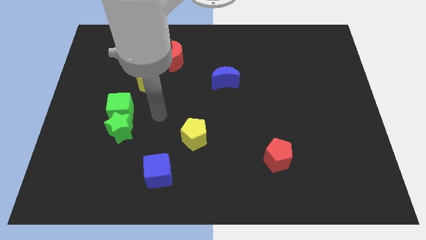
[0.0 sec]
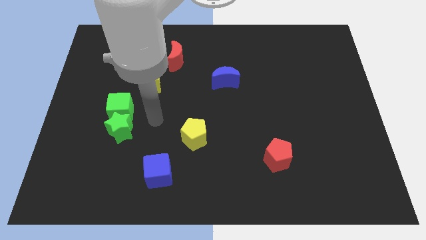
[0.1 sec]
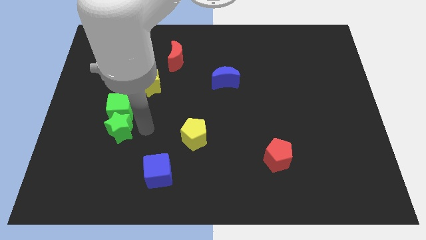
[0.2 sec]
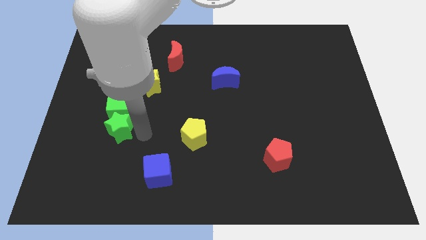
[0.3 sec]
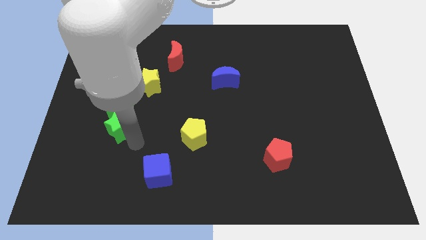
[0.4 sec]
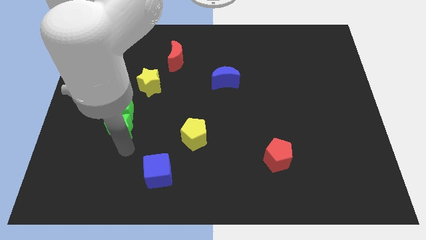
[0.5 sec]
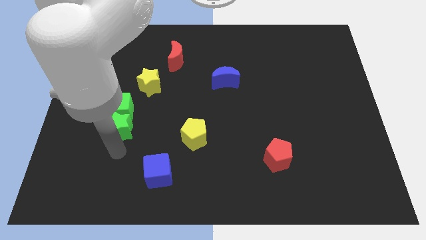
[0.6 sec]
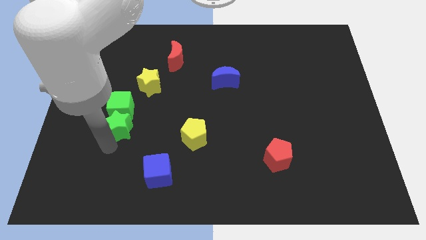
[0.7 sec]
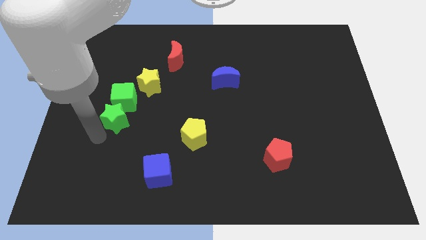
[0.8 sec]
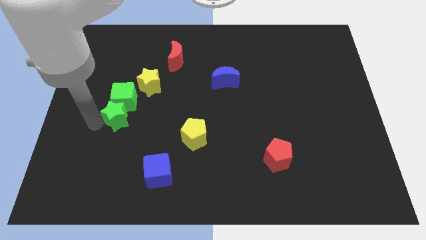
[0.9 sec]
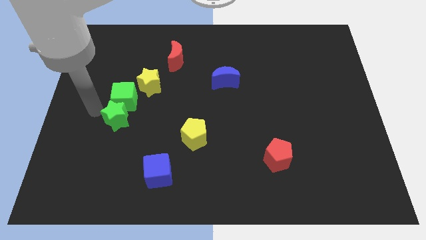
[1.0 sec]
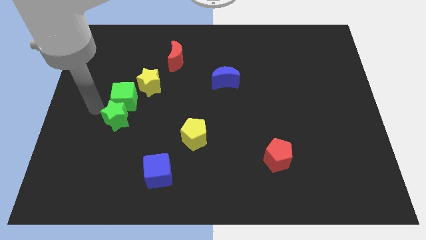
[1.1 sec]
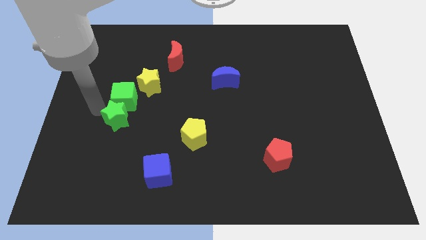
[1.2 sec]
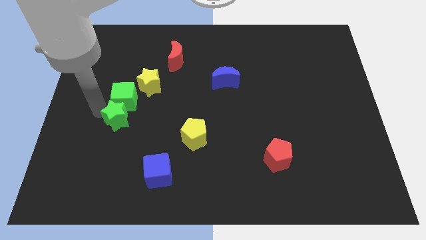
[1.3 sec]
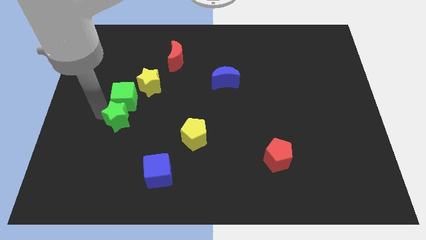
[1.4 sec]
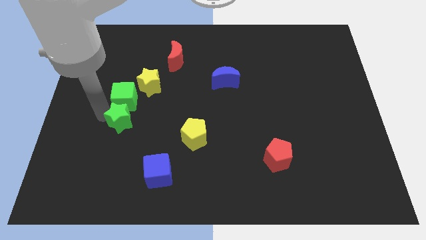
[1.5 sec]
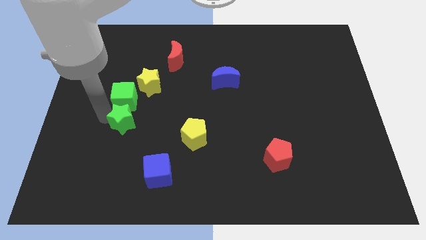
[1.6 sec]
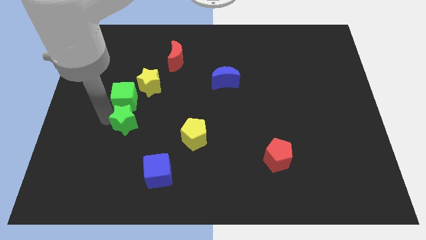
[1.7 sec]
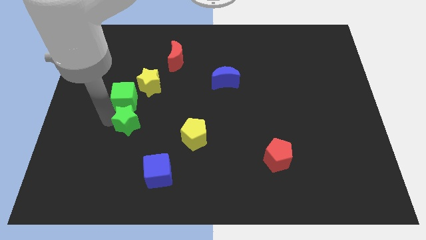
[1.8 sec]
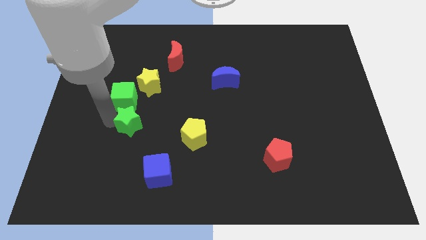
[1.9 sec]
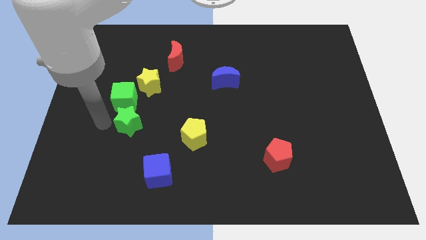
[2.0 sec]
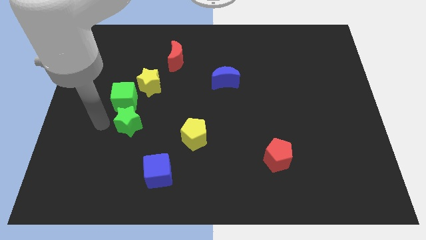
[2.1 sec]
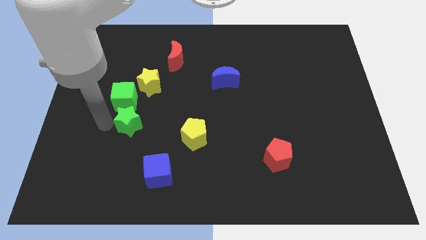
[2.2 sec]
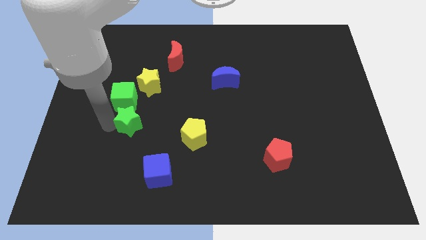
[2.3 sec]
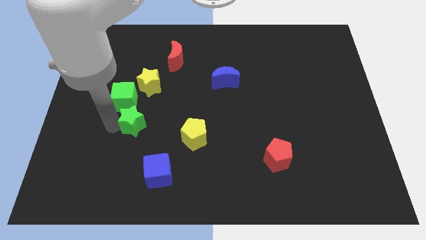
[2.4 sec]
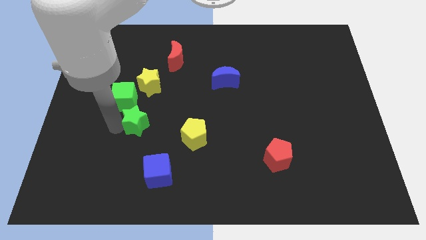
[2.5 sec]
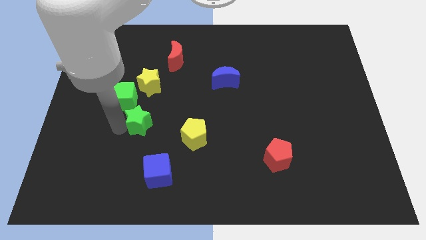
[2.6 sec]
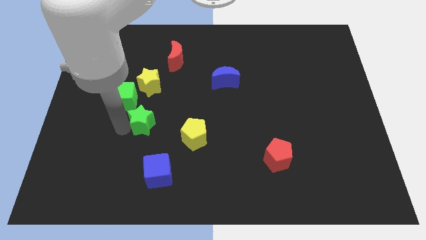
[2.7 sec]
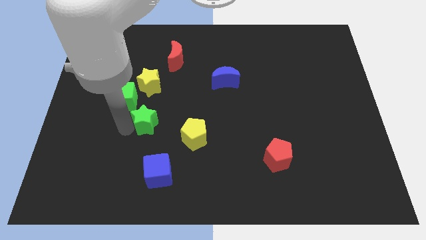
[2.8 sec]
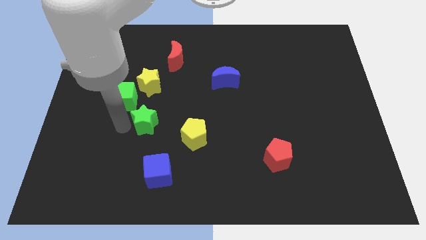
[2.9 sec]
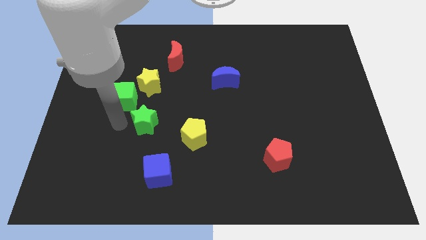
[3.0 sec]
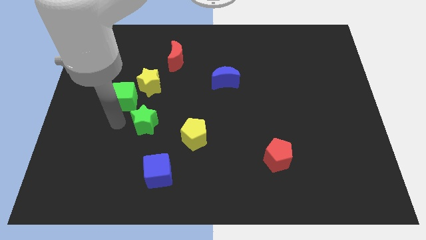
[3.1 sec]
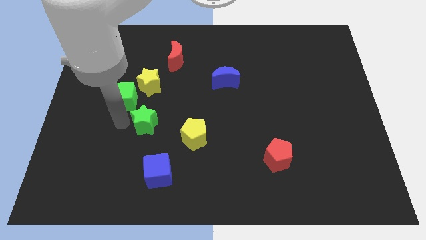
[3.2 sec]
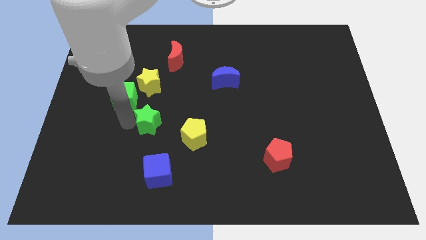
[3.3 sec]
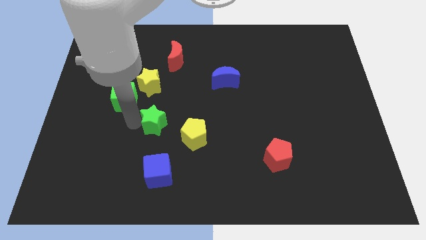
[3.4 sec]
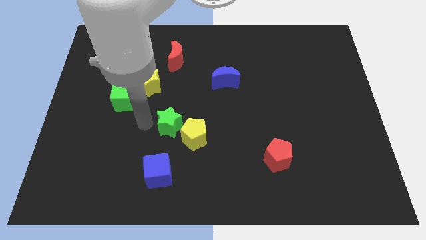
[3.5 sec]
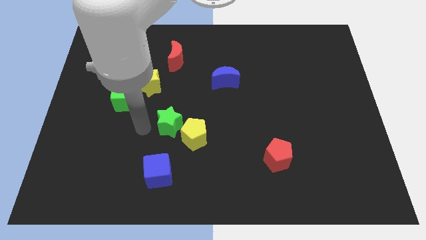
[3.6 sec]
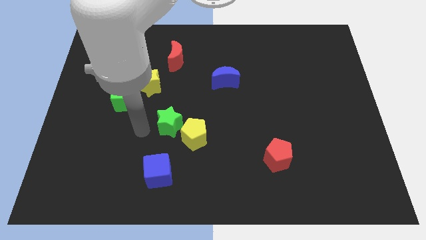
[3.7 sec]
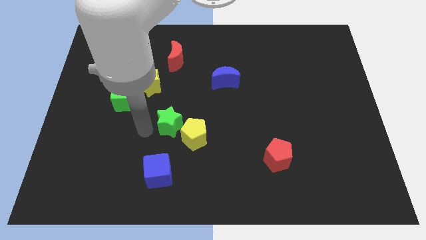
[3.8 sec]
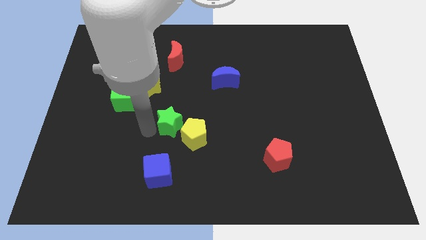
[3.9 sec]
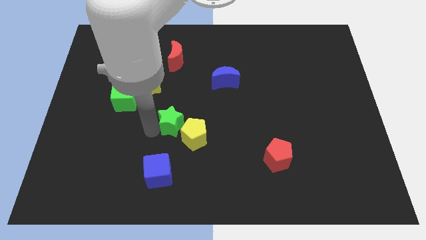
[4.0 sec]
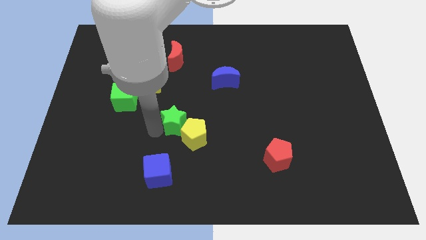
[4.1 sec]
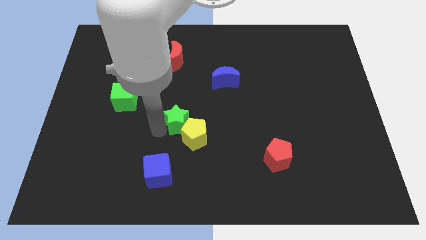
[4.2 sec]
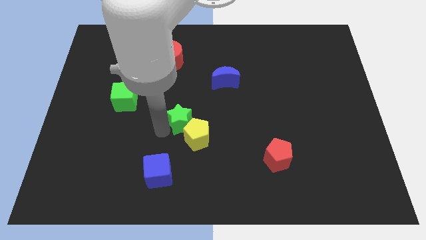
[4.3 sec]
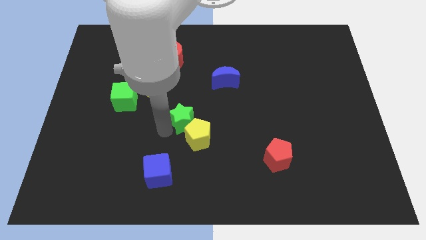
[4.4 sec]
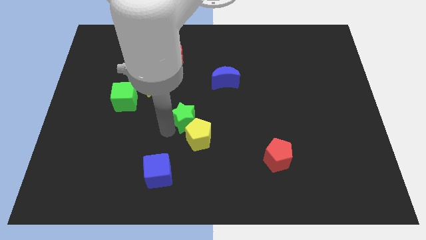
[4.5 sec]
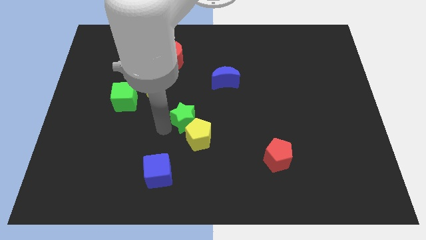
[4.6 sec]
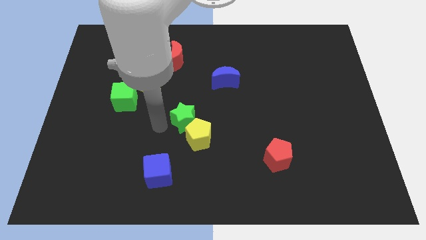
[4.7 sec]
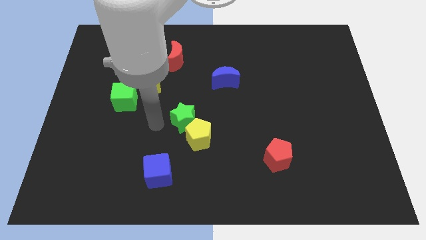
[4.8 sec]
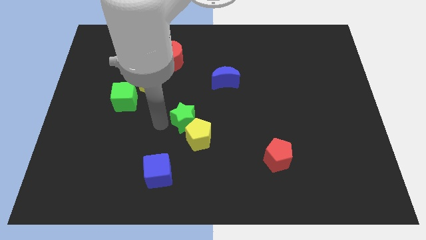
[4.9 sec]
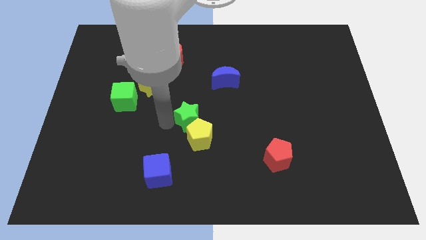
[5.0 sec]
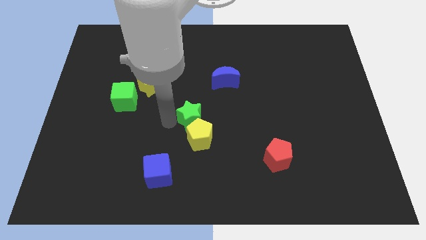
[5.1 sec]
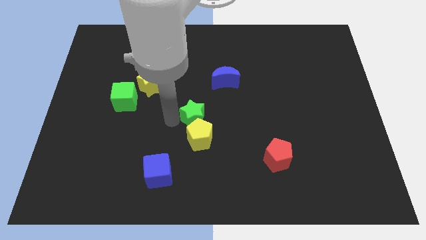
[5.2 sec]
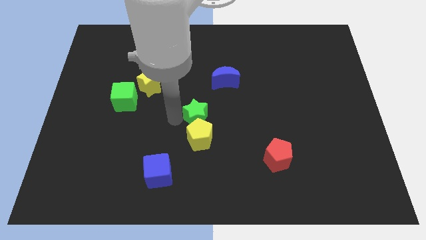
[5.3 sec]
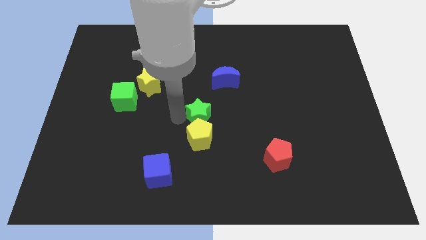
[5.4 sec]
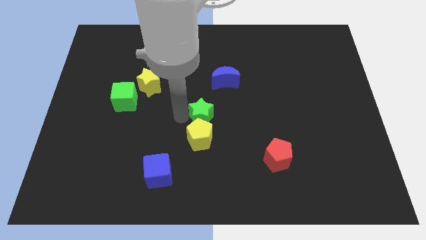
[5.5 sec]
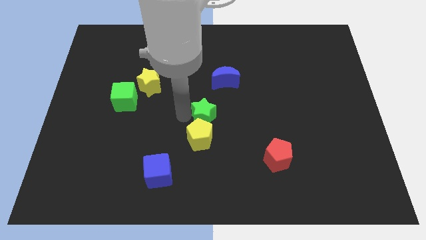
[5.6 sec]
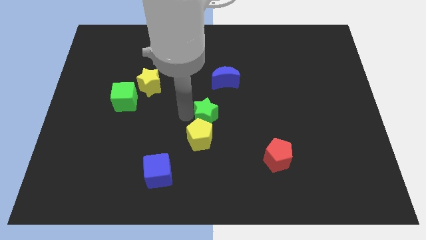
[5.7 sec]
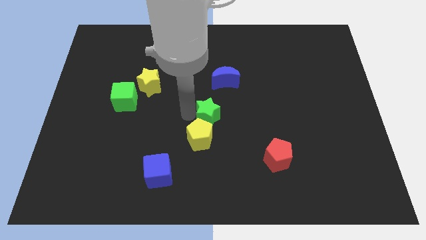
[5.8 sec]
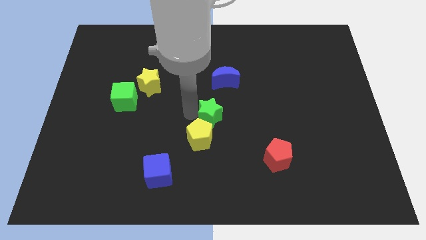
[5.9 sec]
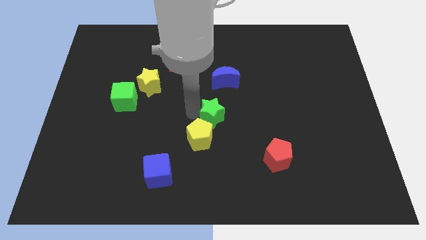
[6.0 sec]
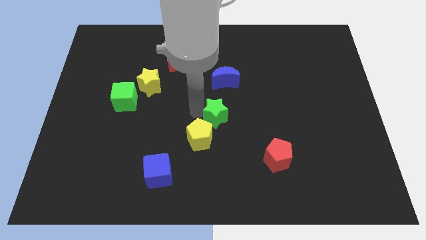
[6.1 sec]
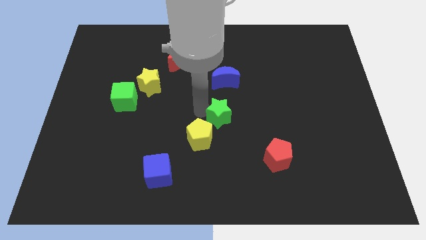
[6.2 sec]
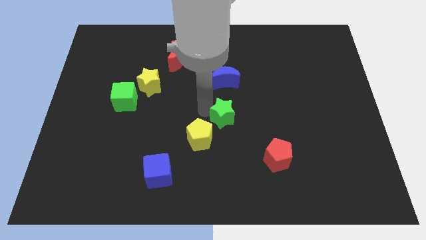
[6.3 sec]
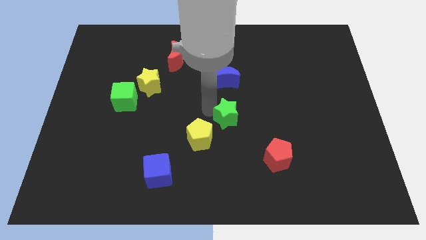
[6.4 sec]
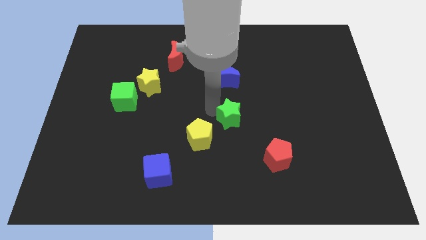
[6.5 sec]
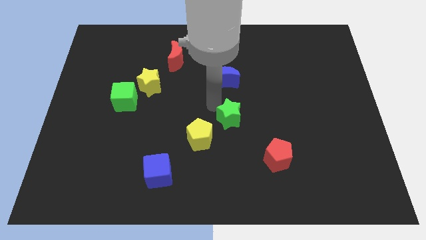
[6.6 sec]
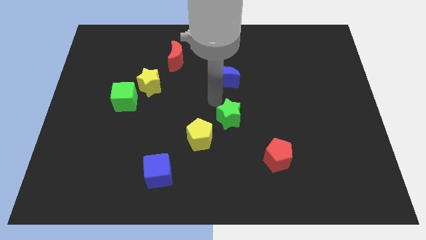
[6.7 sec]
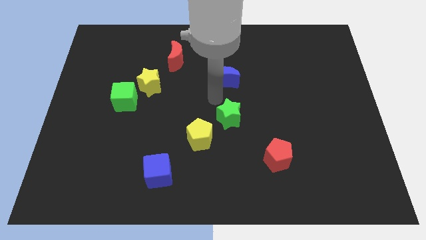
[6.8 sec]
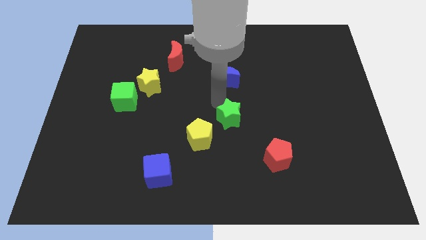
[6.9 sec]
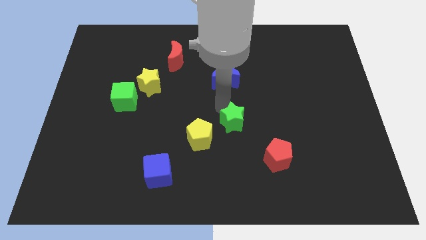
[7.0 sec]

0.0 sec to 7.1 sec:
move the green star to the right side of the yellow pentagon
